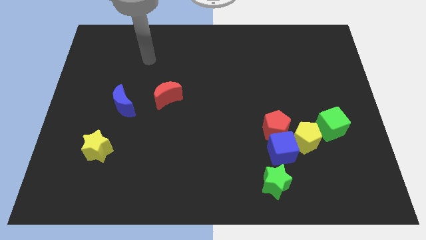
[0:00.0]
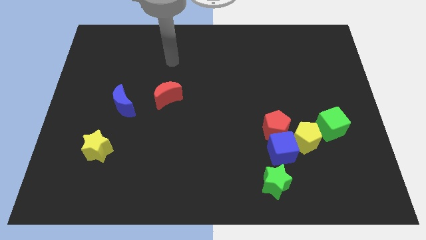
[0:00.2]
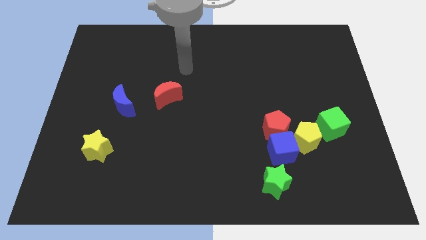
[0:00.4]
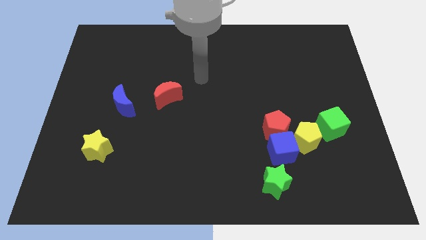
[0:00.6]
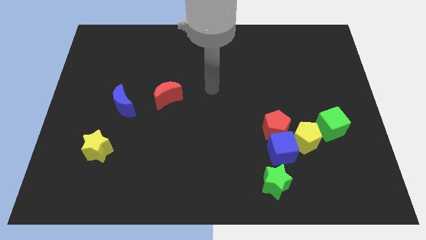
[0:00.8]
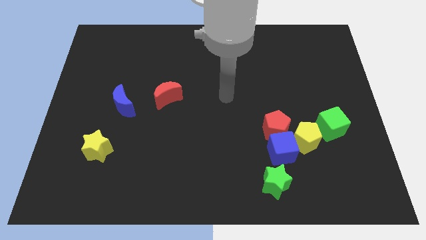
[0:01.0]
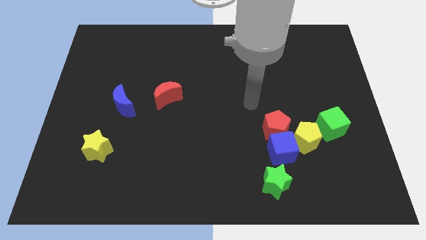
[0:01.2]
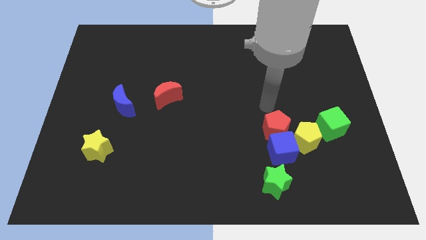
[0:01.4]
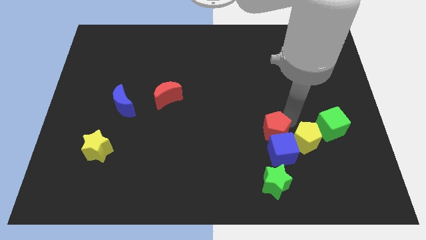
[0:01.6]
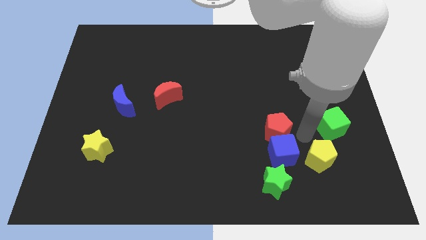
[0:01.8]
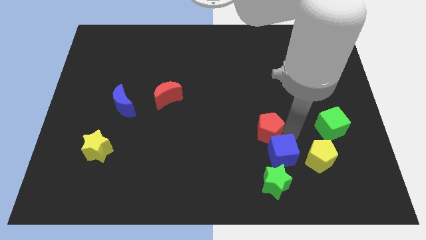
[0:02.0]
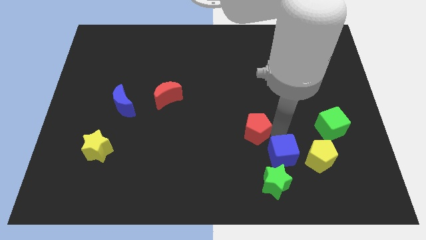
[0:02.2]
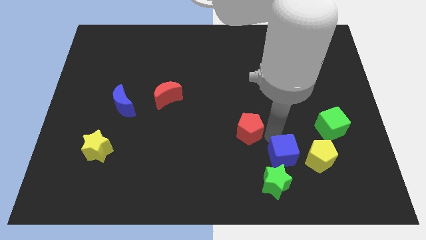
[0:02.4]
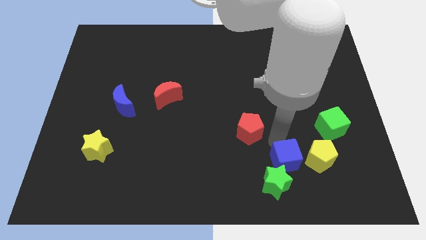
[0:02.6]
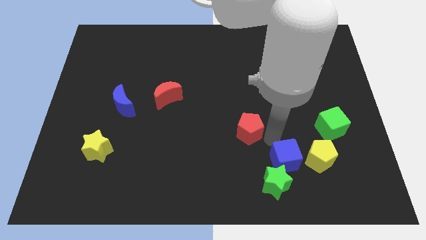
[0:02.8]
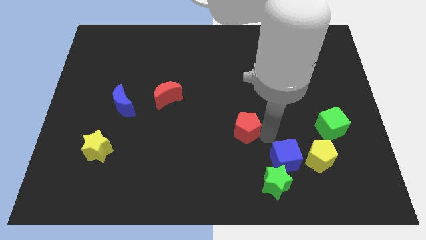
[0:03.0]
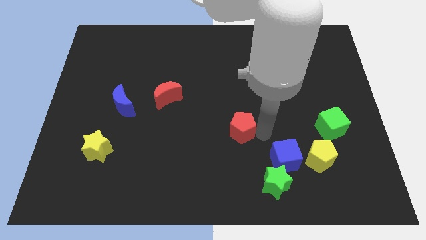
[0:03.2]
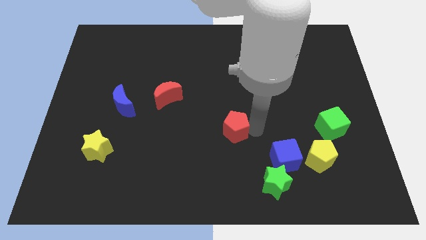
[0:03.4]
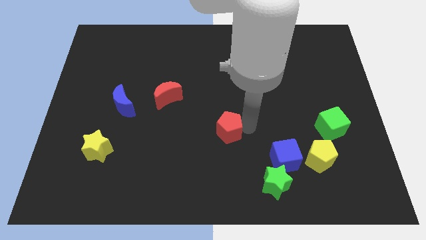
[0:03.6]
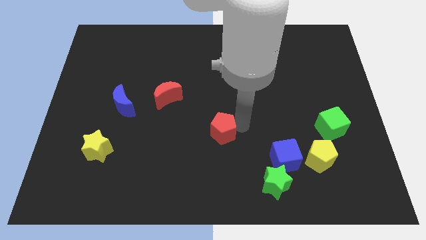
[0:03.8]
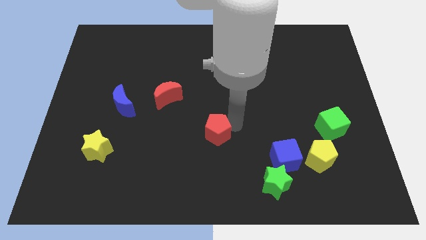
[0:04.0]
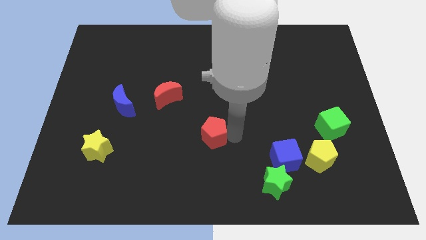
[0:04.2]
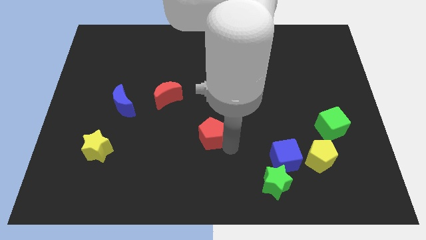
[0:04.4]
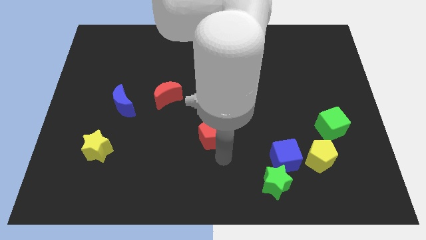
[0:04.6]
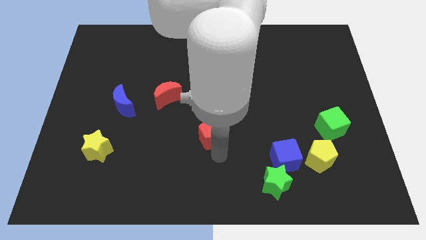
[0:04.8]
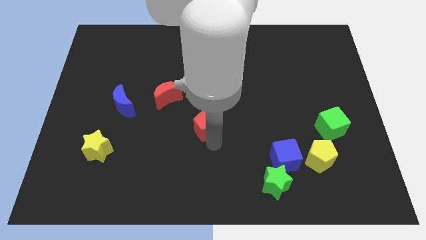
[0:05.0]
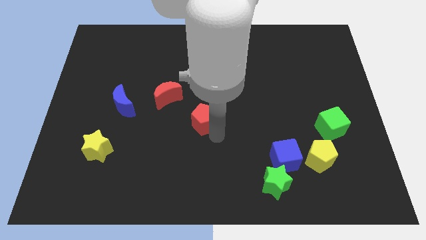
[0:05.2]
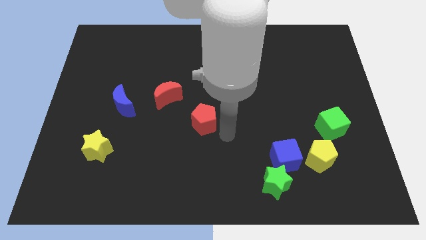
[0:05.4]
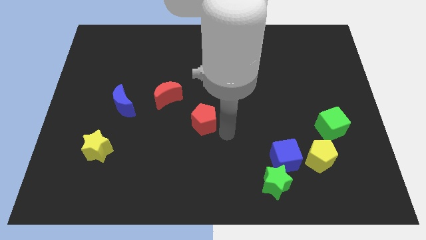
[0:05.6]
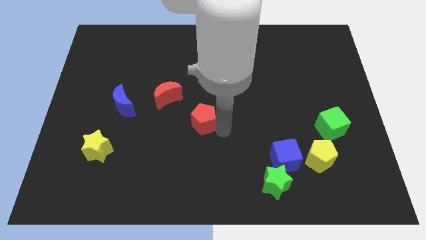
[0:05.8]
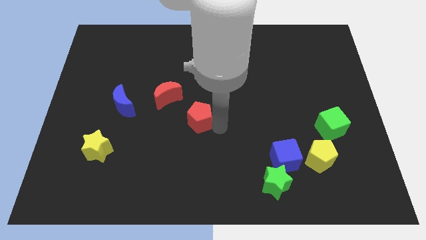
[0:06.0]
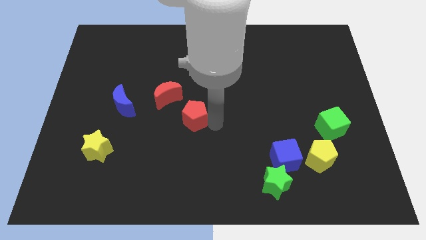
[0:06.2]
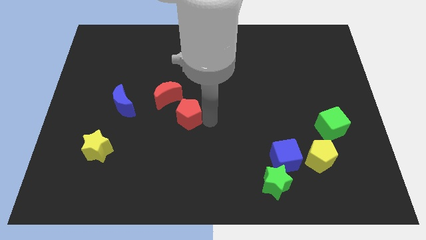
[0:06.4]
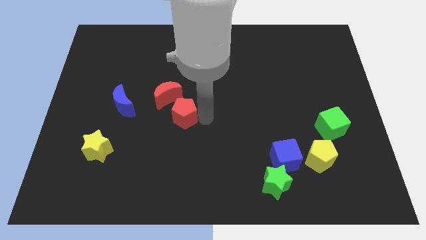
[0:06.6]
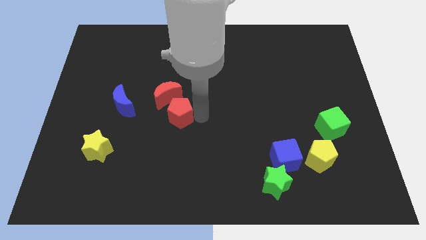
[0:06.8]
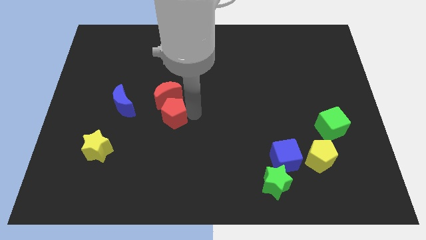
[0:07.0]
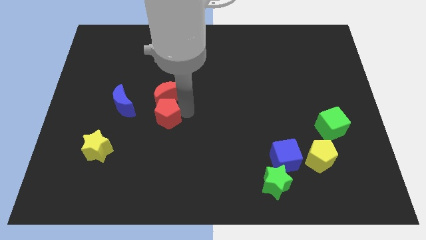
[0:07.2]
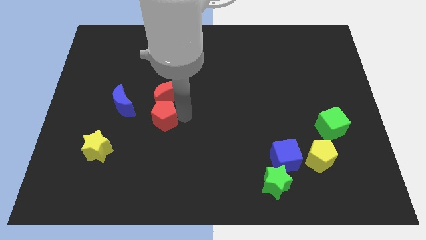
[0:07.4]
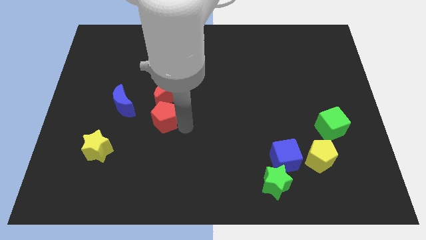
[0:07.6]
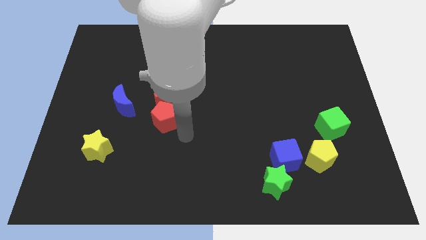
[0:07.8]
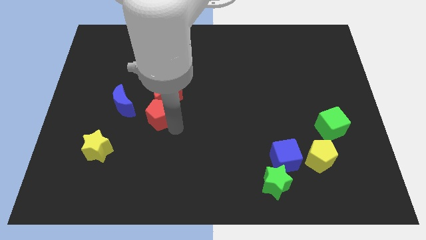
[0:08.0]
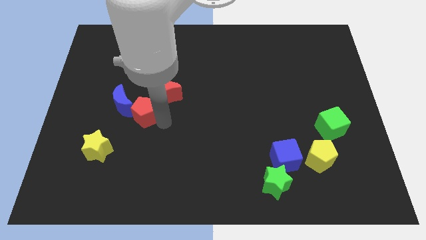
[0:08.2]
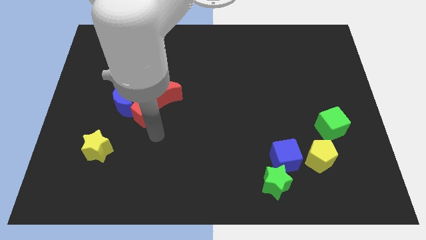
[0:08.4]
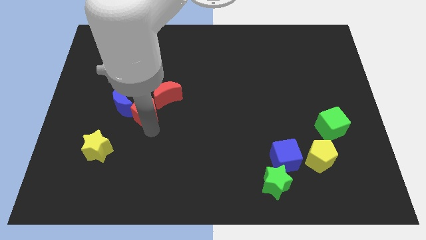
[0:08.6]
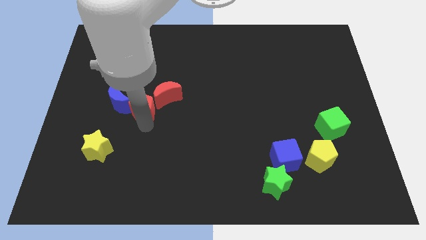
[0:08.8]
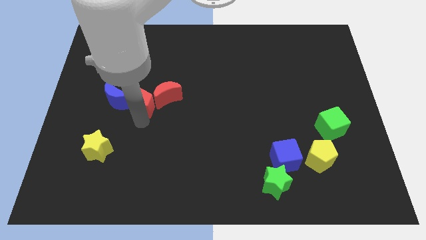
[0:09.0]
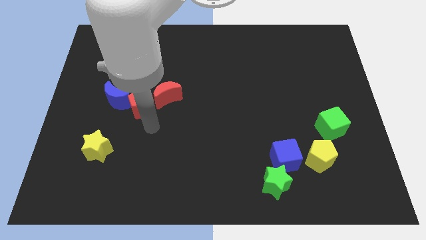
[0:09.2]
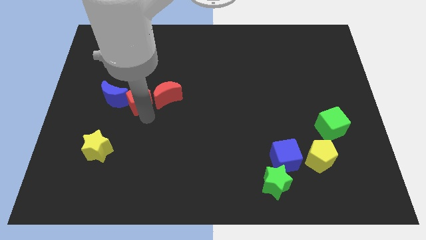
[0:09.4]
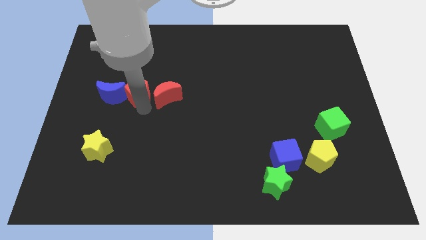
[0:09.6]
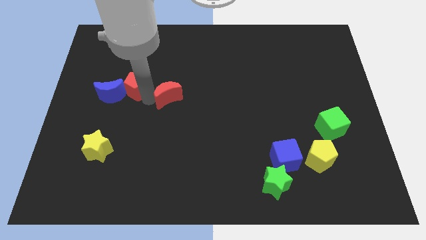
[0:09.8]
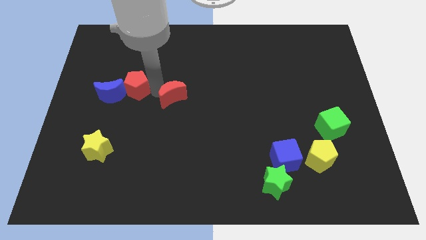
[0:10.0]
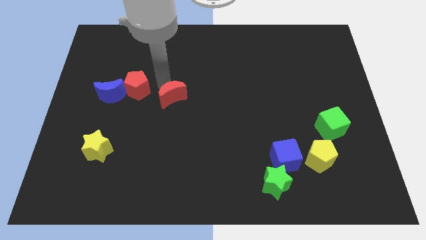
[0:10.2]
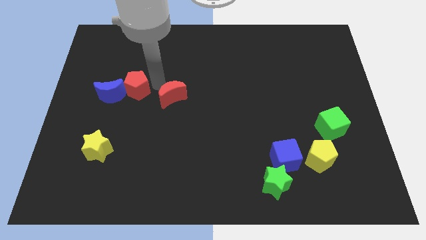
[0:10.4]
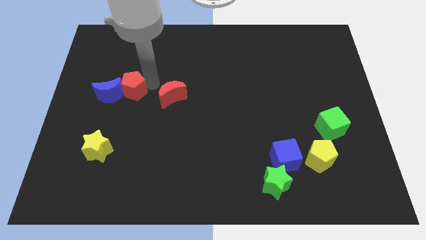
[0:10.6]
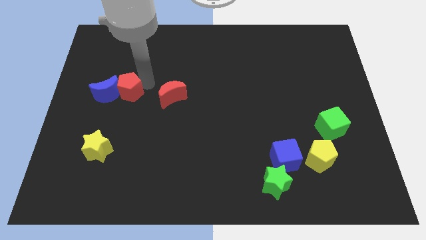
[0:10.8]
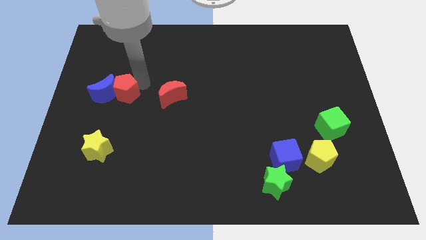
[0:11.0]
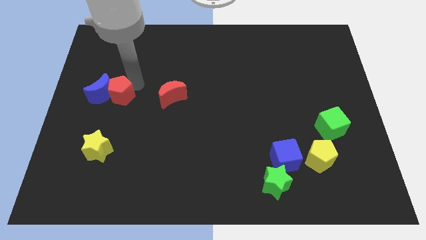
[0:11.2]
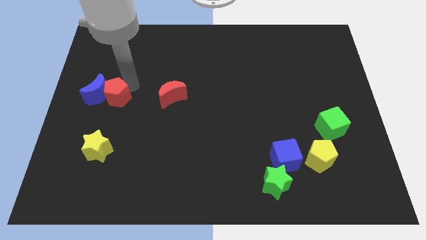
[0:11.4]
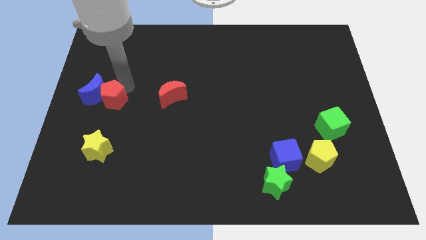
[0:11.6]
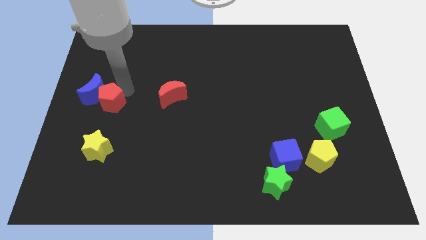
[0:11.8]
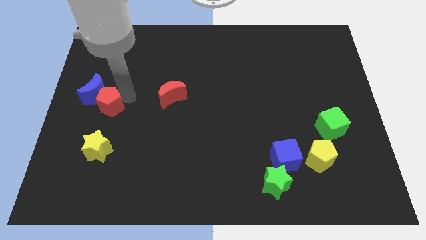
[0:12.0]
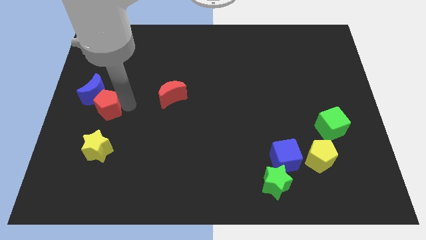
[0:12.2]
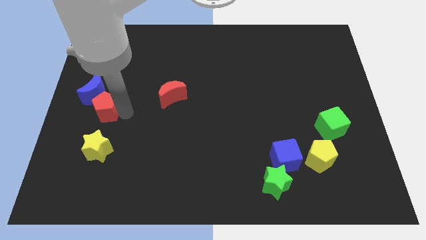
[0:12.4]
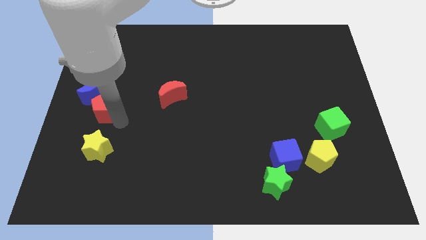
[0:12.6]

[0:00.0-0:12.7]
slide the red pentagon to the center left

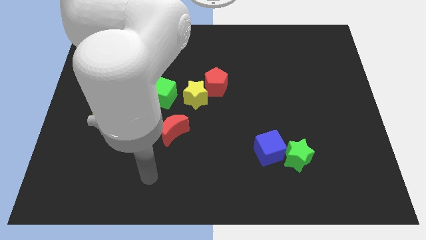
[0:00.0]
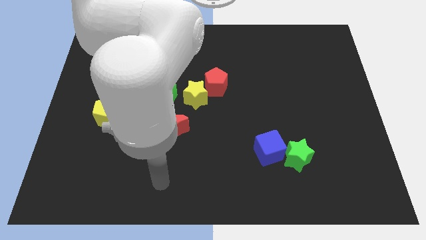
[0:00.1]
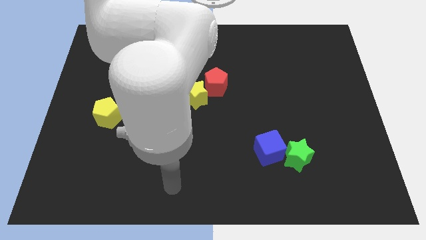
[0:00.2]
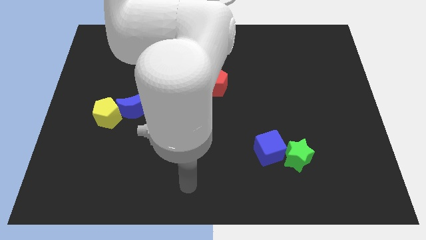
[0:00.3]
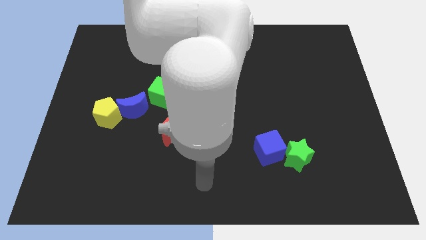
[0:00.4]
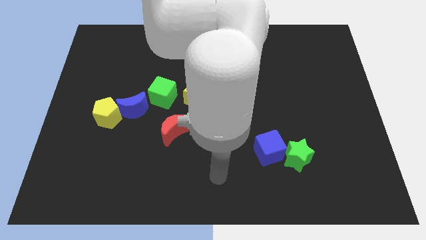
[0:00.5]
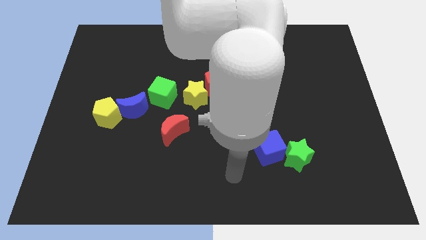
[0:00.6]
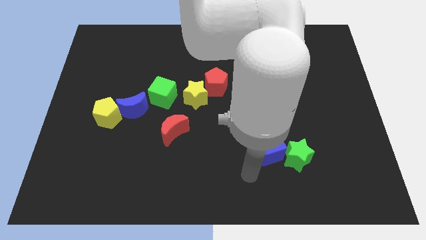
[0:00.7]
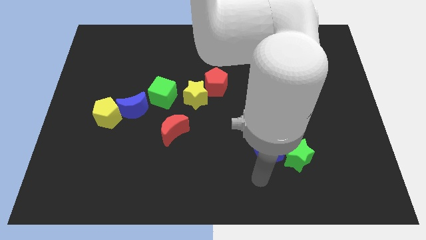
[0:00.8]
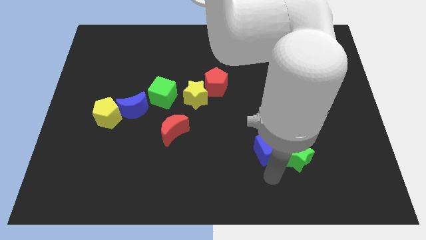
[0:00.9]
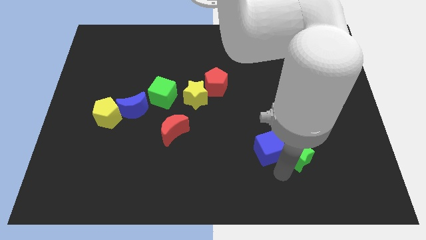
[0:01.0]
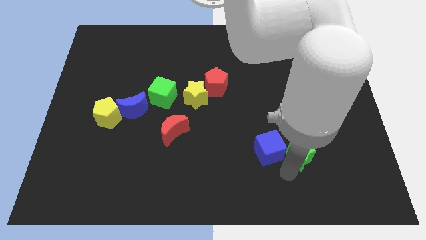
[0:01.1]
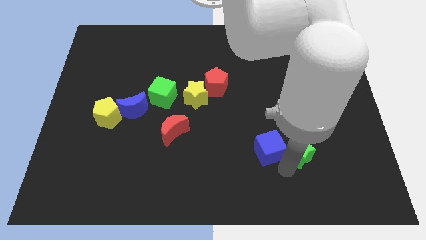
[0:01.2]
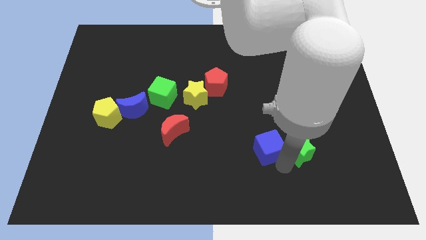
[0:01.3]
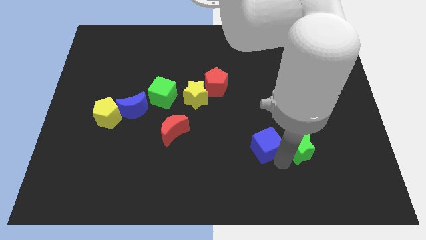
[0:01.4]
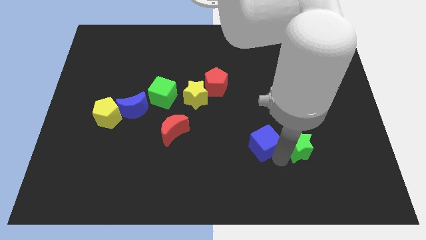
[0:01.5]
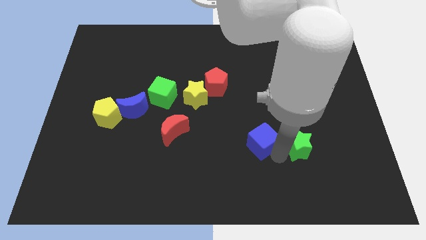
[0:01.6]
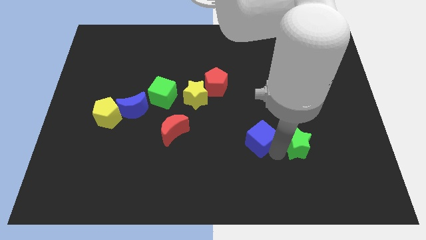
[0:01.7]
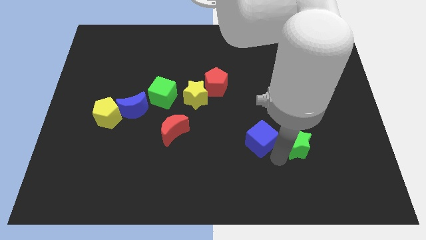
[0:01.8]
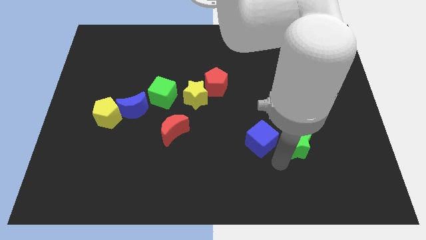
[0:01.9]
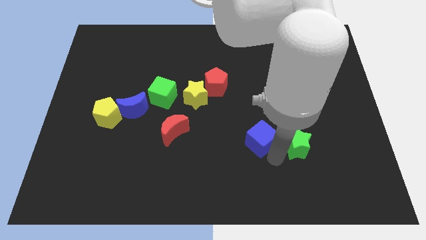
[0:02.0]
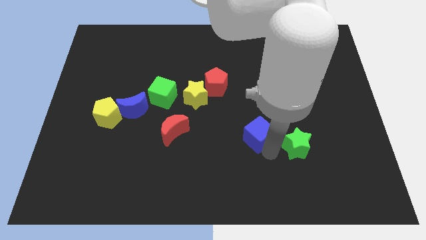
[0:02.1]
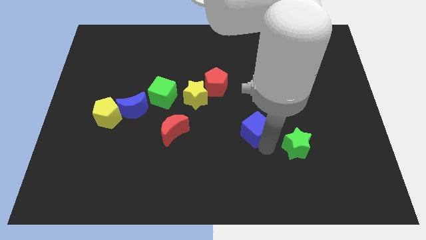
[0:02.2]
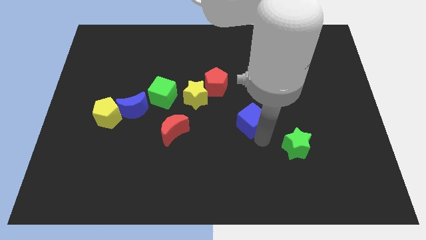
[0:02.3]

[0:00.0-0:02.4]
put the blue cube to the center of the board
